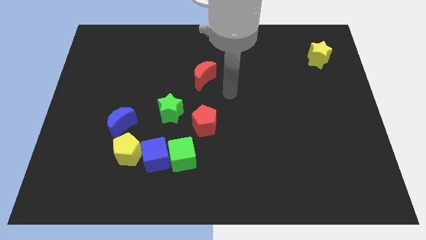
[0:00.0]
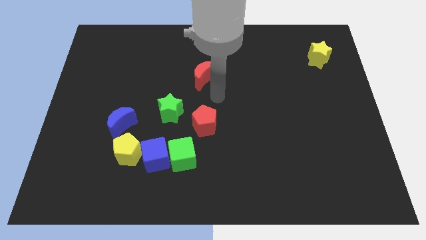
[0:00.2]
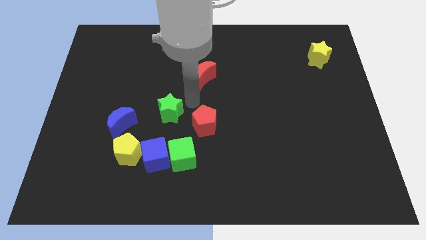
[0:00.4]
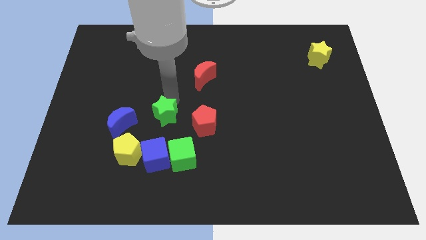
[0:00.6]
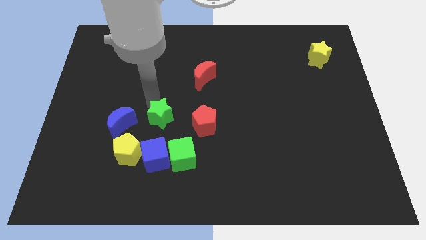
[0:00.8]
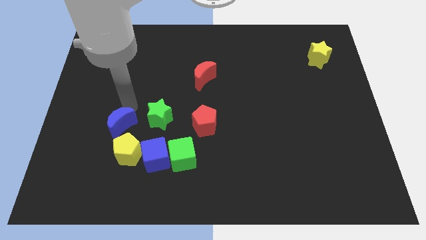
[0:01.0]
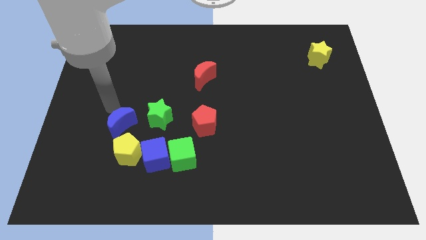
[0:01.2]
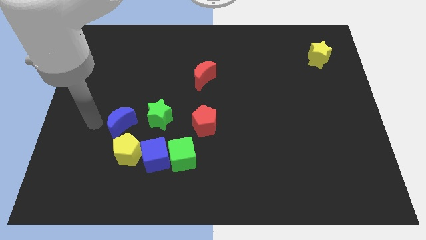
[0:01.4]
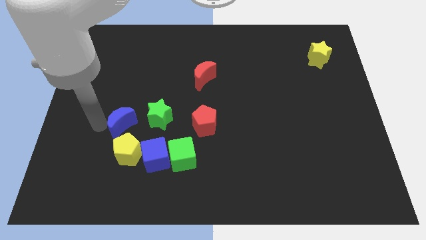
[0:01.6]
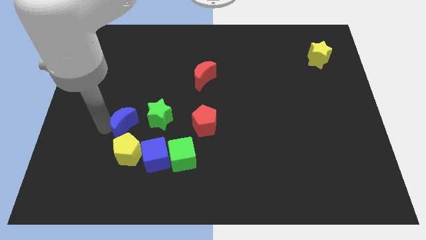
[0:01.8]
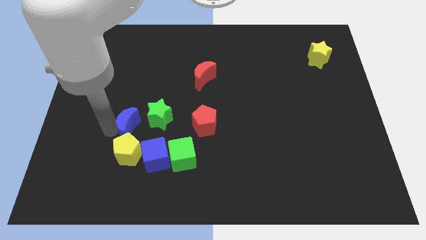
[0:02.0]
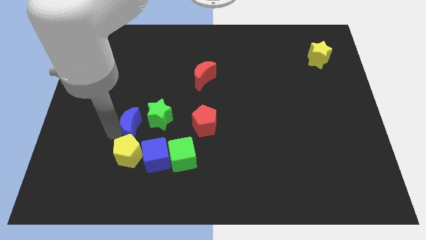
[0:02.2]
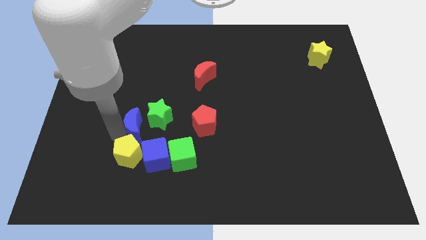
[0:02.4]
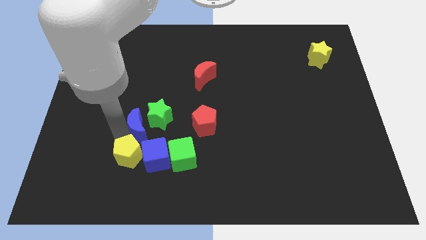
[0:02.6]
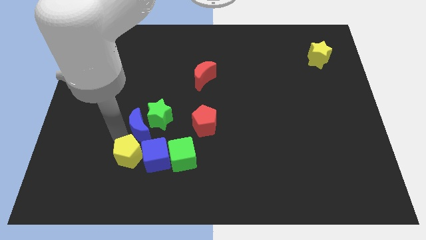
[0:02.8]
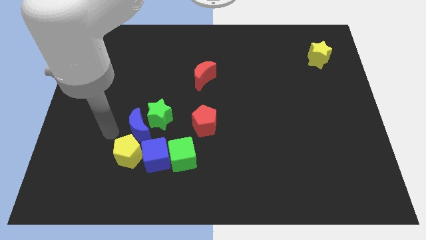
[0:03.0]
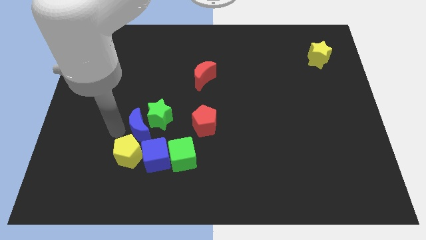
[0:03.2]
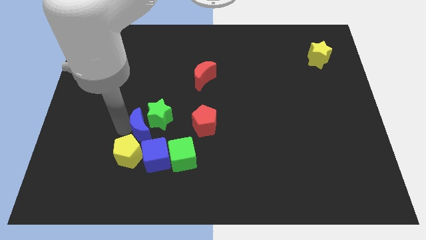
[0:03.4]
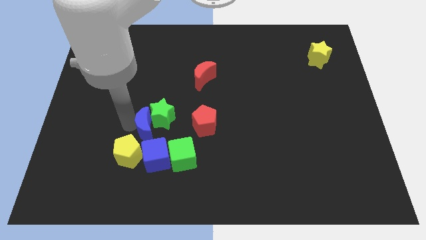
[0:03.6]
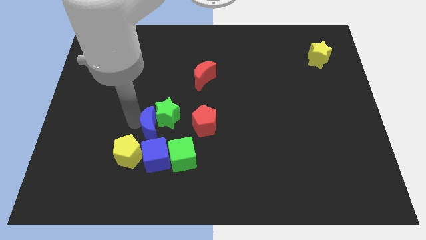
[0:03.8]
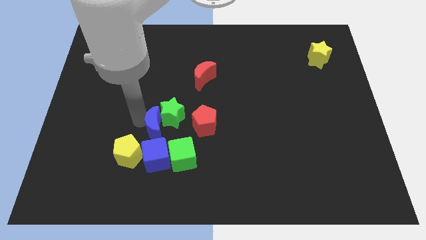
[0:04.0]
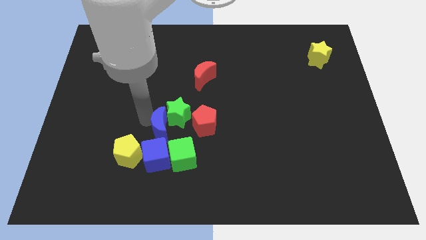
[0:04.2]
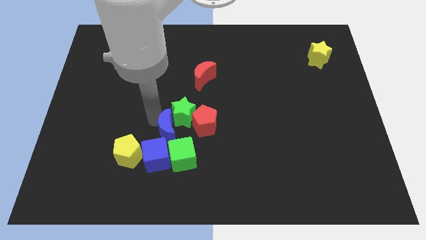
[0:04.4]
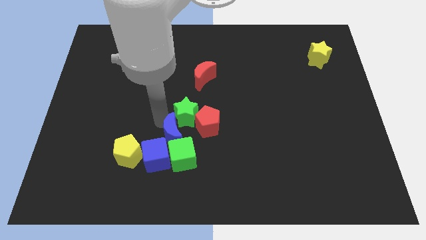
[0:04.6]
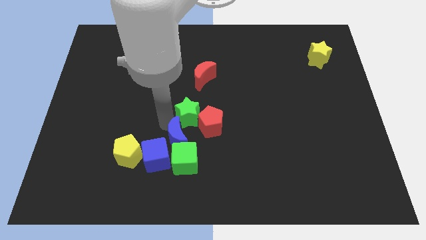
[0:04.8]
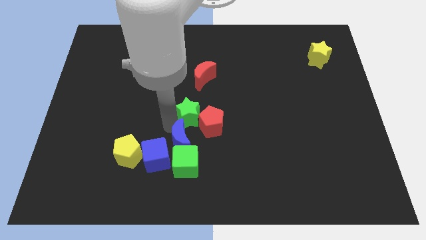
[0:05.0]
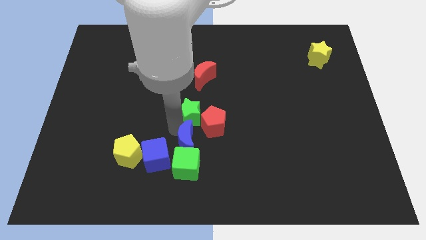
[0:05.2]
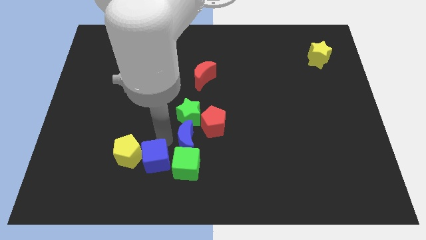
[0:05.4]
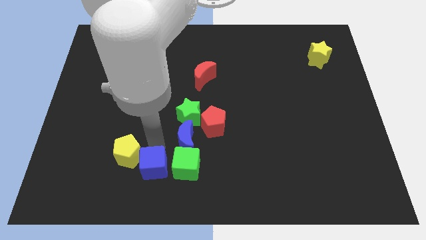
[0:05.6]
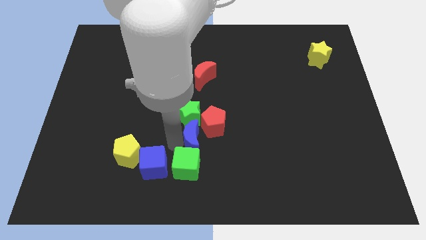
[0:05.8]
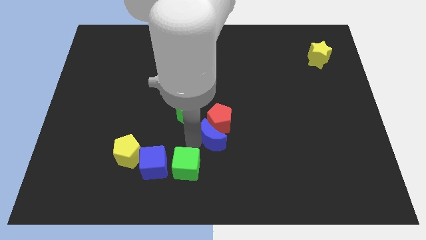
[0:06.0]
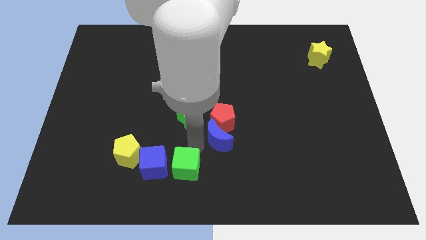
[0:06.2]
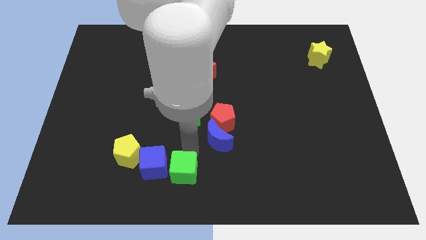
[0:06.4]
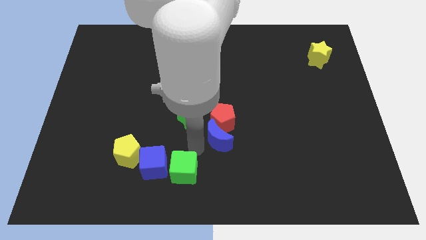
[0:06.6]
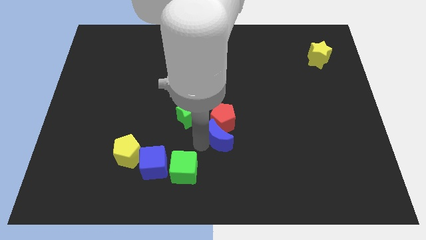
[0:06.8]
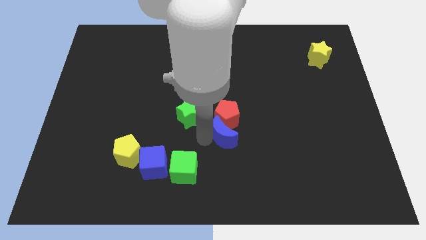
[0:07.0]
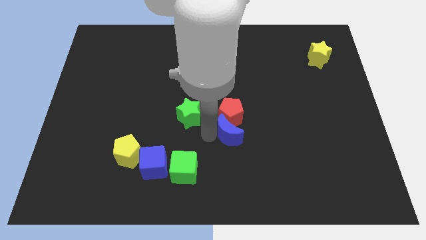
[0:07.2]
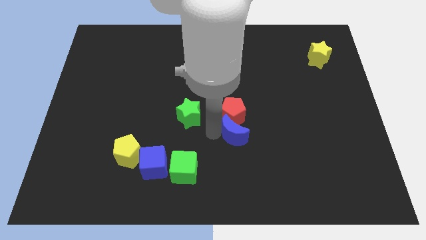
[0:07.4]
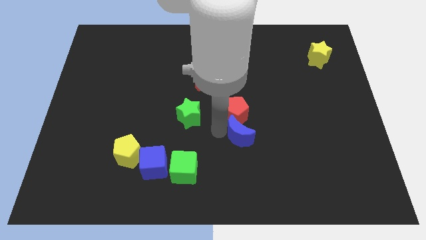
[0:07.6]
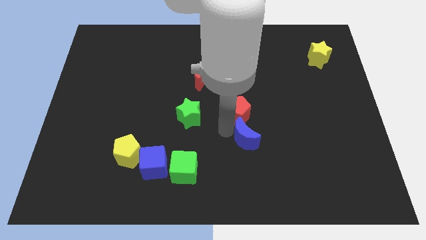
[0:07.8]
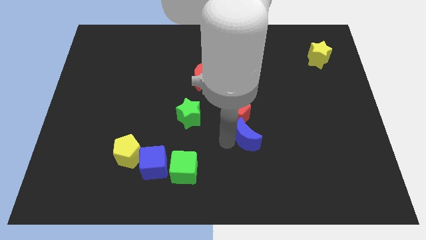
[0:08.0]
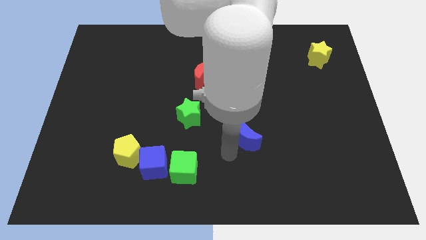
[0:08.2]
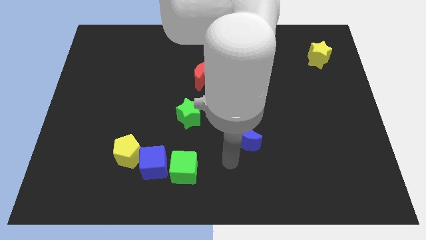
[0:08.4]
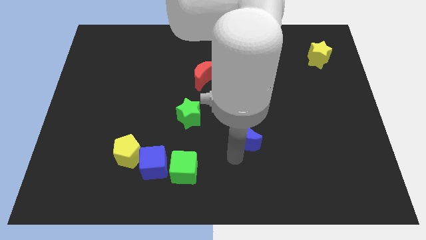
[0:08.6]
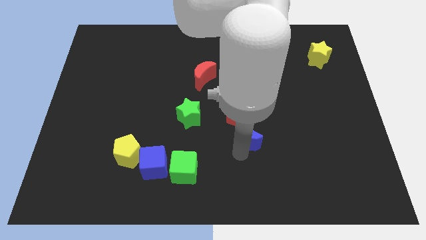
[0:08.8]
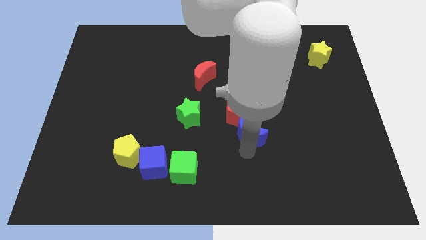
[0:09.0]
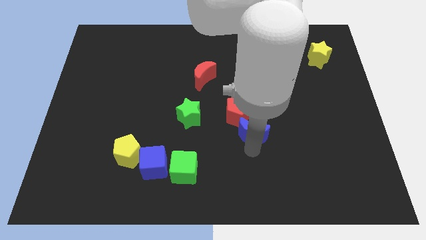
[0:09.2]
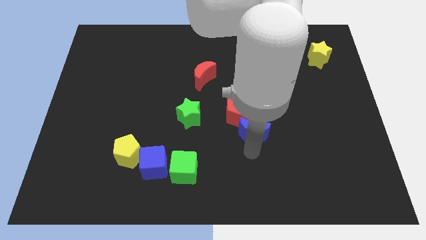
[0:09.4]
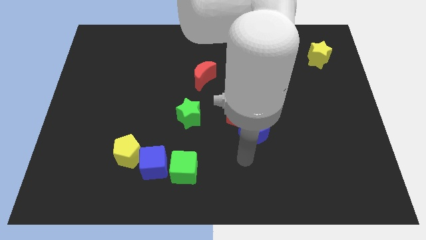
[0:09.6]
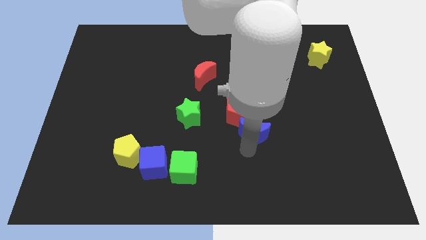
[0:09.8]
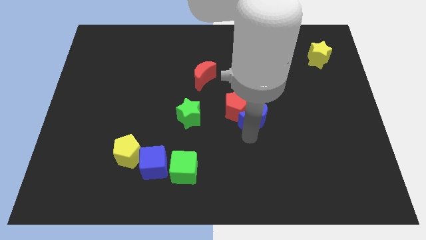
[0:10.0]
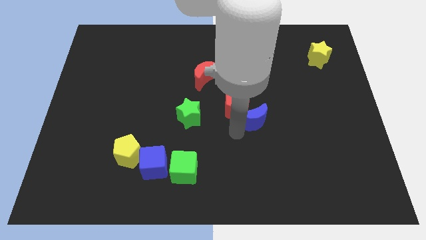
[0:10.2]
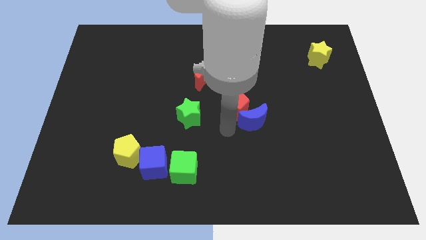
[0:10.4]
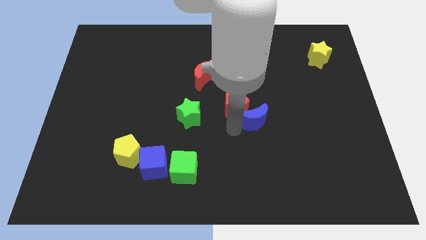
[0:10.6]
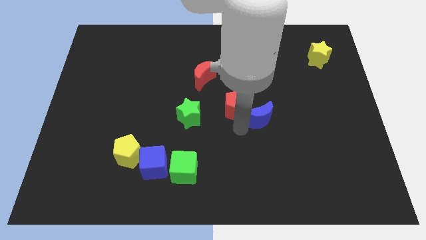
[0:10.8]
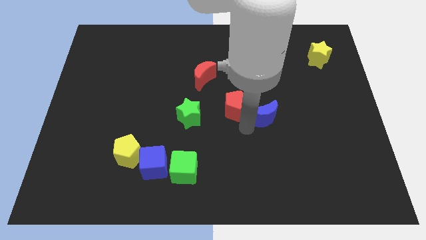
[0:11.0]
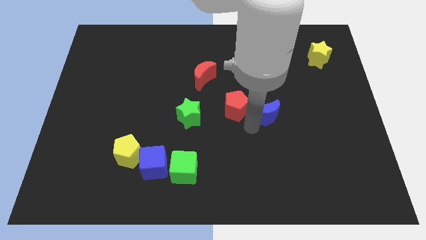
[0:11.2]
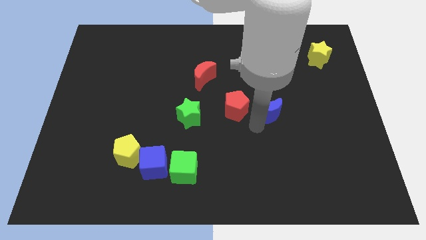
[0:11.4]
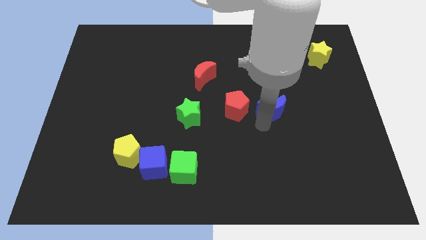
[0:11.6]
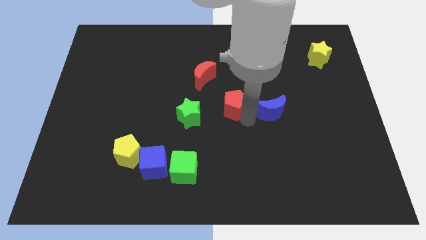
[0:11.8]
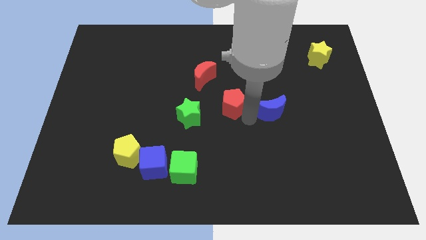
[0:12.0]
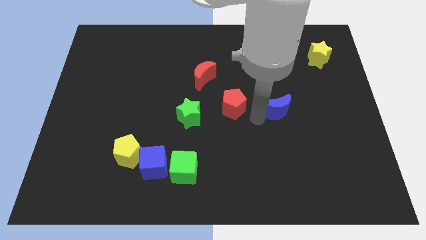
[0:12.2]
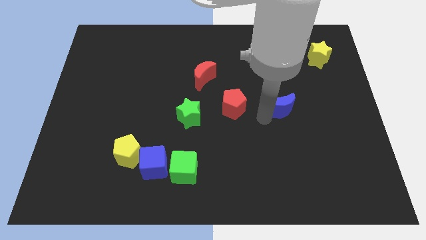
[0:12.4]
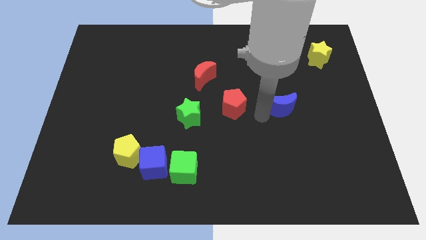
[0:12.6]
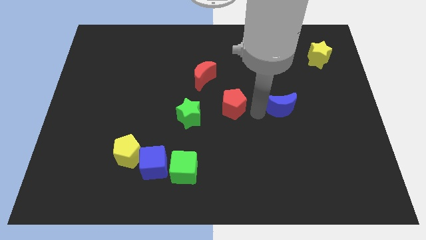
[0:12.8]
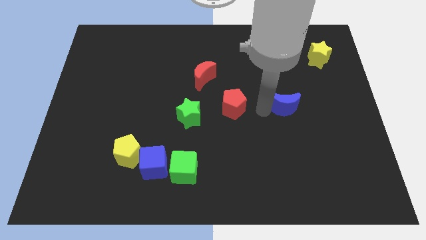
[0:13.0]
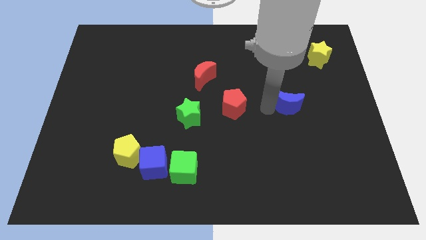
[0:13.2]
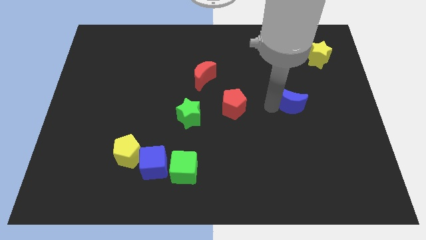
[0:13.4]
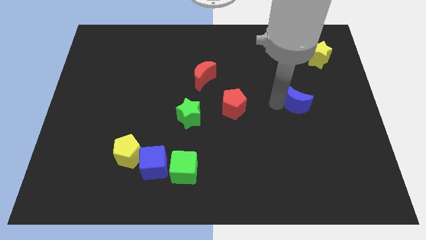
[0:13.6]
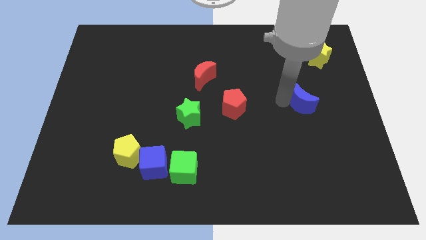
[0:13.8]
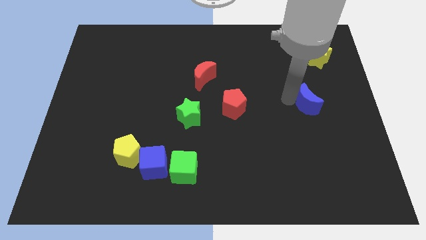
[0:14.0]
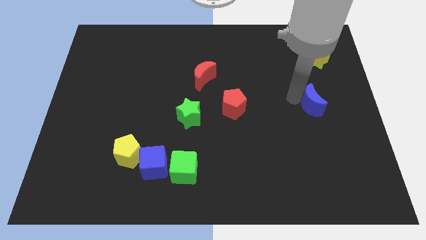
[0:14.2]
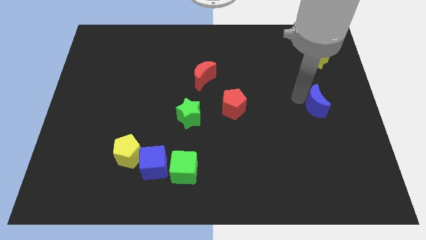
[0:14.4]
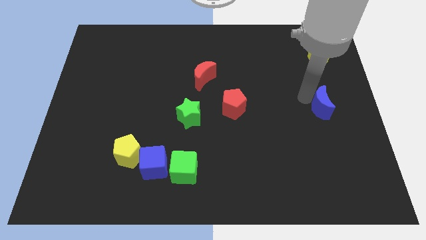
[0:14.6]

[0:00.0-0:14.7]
move the blue moon to the center right
